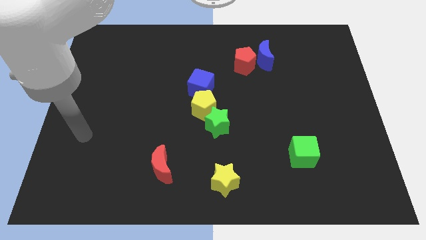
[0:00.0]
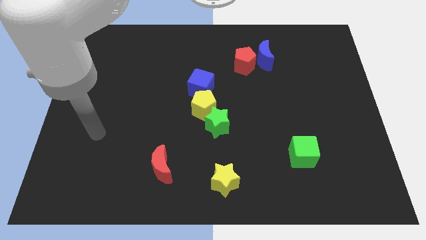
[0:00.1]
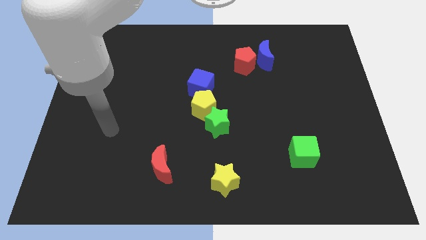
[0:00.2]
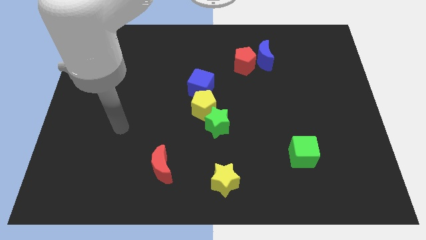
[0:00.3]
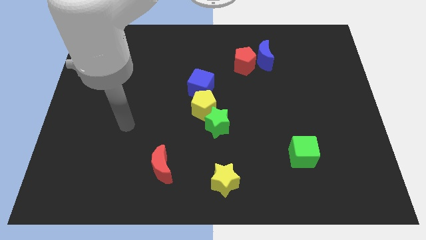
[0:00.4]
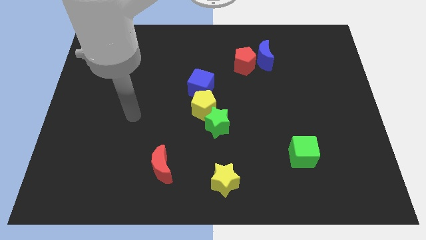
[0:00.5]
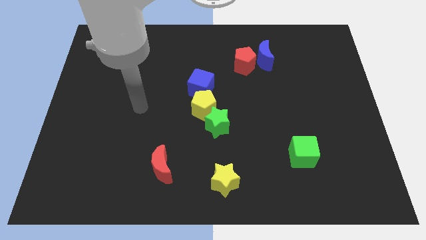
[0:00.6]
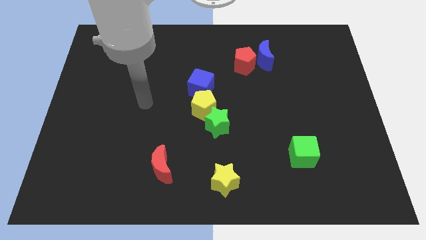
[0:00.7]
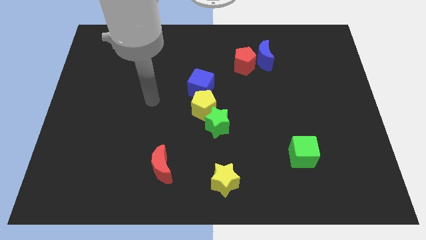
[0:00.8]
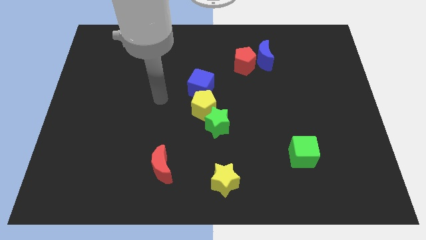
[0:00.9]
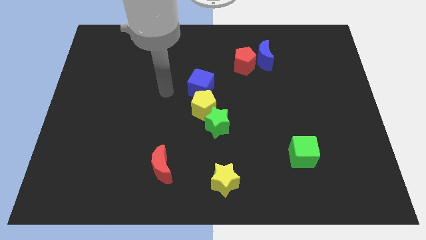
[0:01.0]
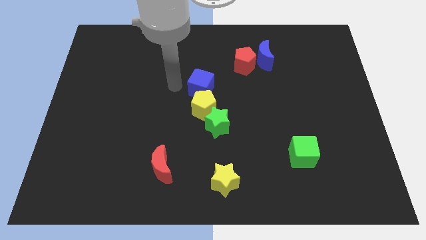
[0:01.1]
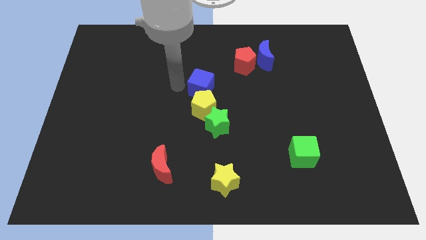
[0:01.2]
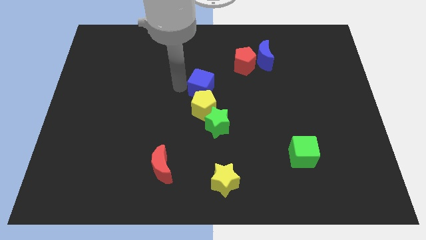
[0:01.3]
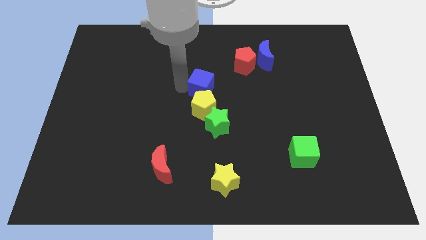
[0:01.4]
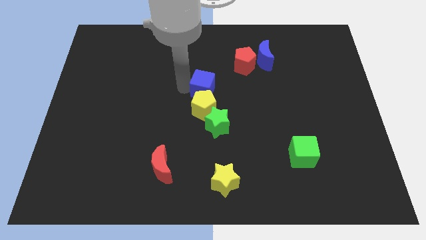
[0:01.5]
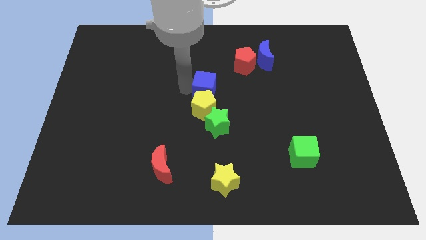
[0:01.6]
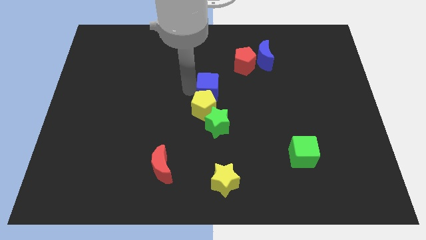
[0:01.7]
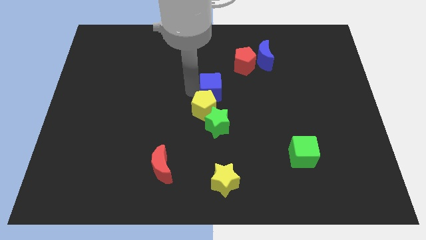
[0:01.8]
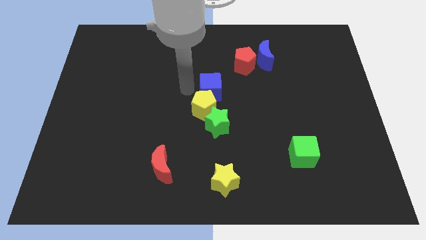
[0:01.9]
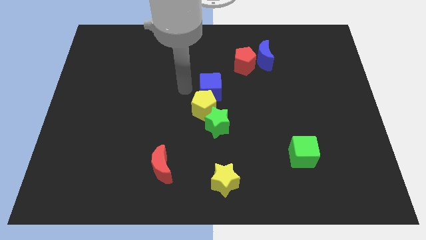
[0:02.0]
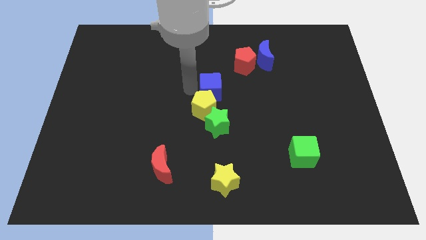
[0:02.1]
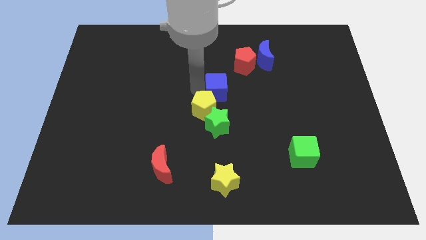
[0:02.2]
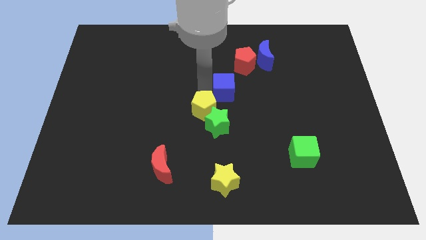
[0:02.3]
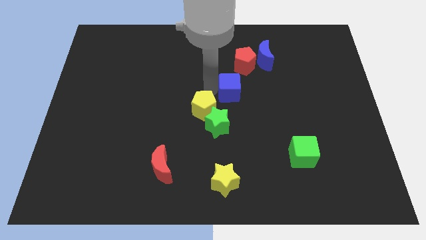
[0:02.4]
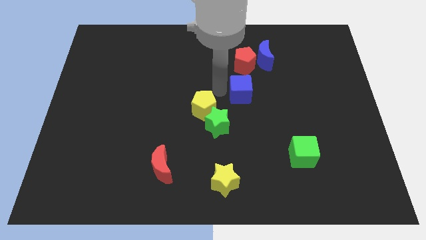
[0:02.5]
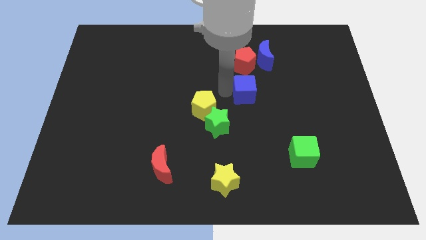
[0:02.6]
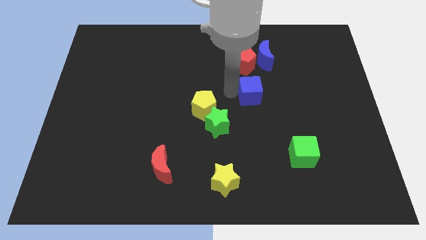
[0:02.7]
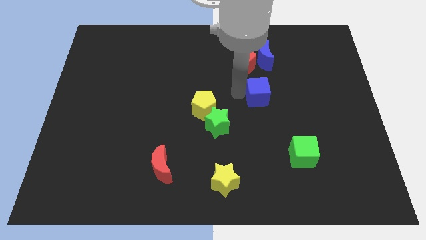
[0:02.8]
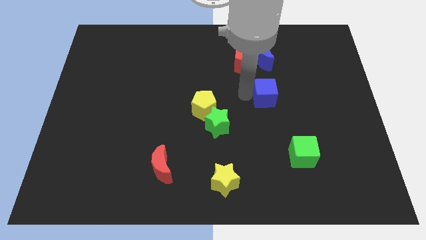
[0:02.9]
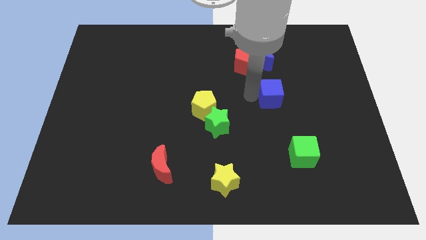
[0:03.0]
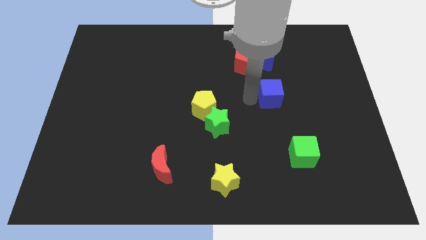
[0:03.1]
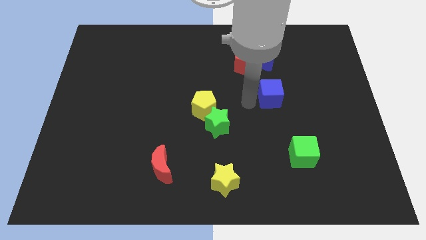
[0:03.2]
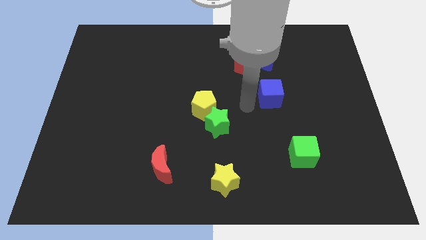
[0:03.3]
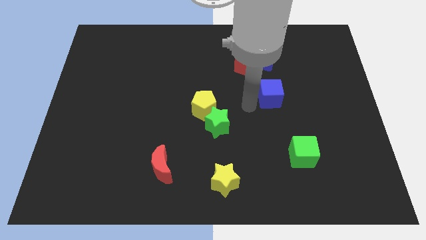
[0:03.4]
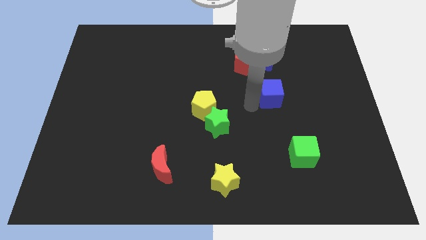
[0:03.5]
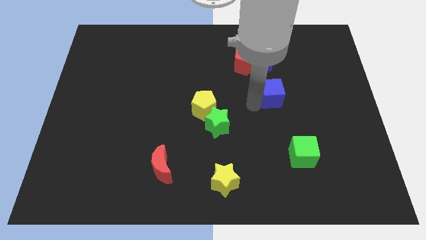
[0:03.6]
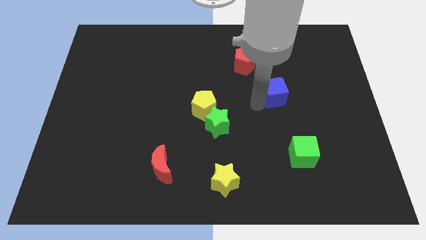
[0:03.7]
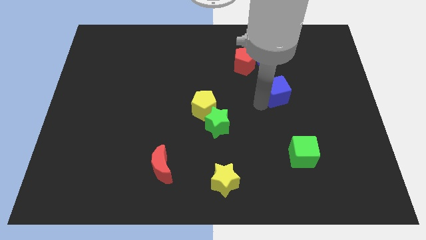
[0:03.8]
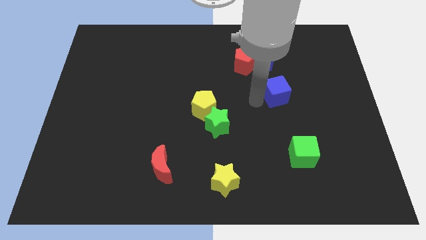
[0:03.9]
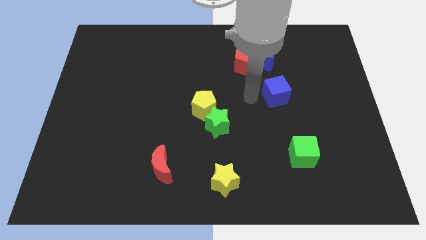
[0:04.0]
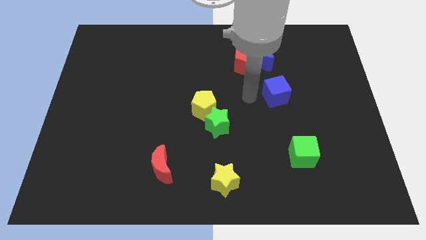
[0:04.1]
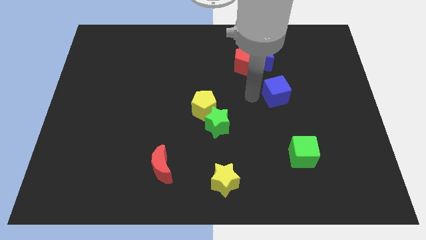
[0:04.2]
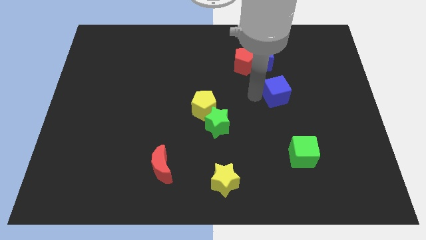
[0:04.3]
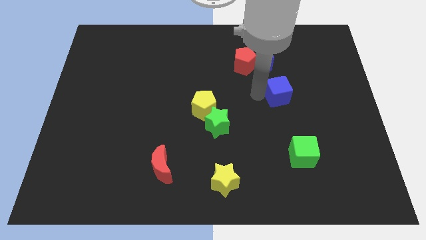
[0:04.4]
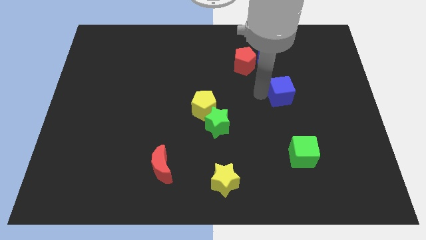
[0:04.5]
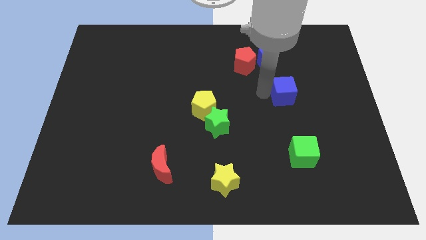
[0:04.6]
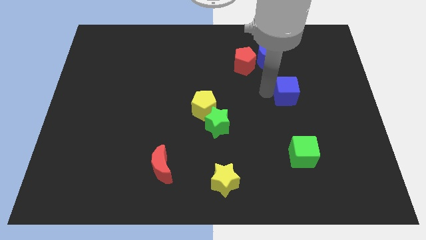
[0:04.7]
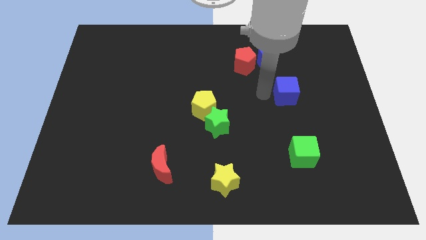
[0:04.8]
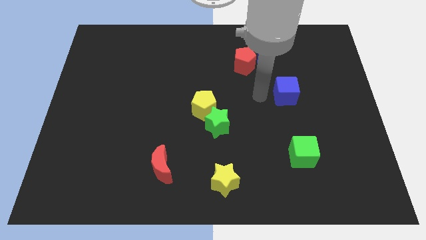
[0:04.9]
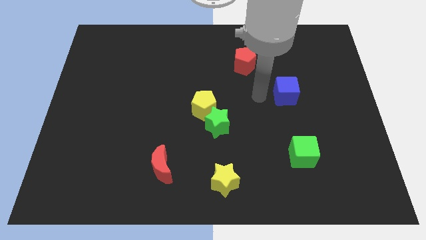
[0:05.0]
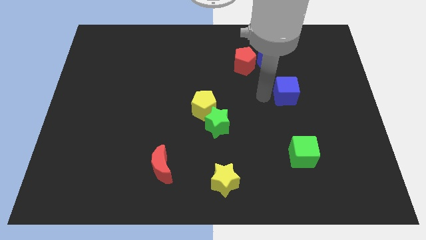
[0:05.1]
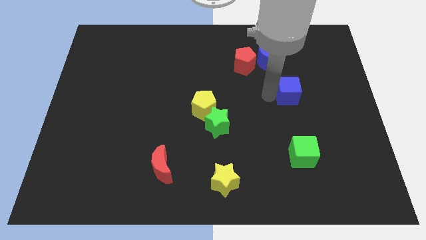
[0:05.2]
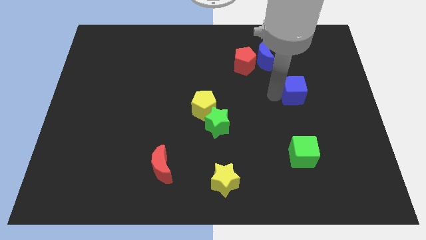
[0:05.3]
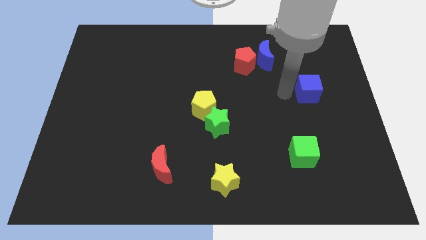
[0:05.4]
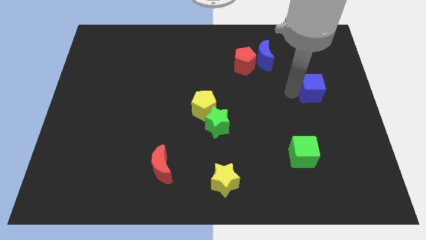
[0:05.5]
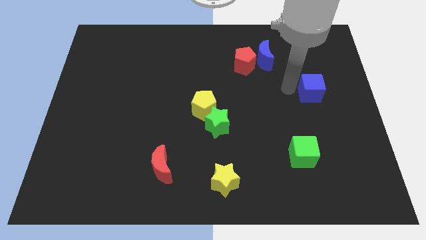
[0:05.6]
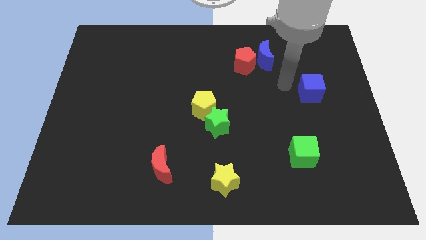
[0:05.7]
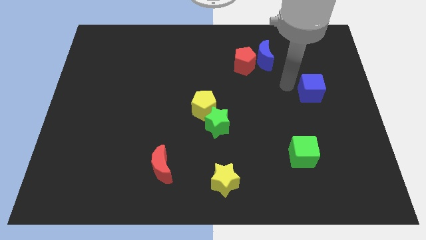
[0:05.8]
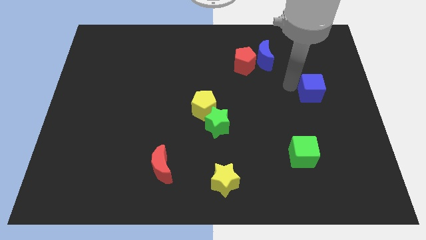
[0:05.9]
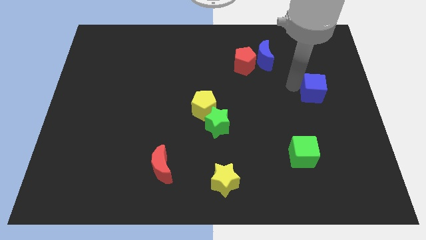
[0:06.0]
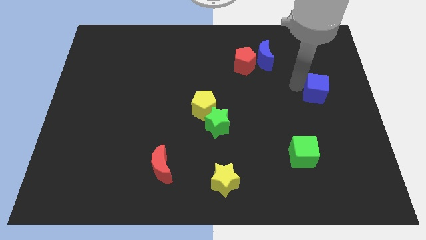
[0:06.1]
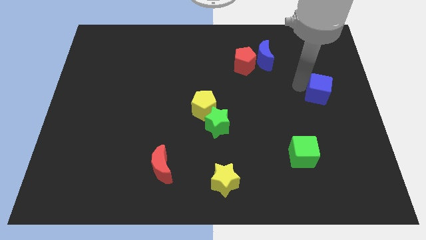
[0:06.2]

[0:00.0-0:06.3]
move the blue cube to the right side of the board
